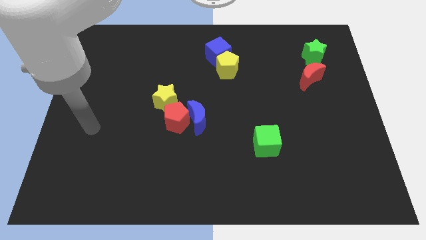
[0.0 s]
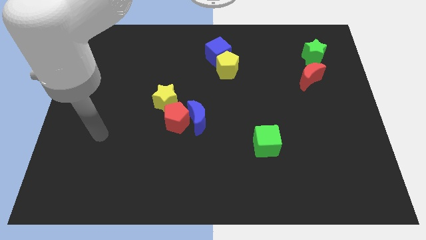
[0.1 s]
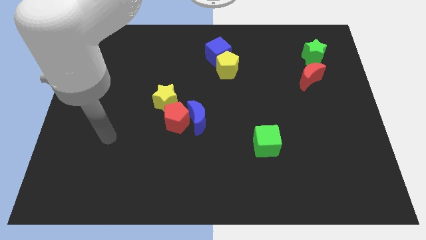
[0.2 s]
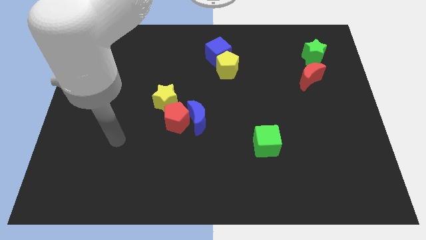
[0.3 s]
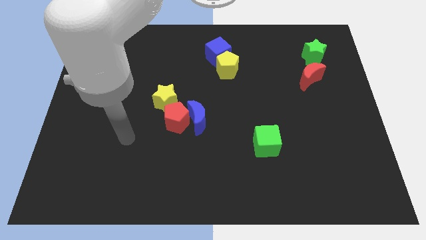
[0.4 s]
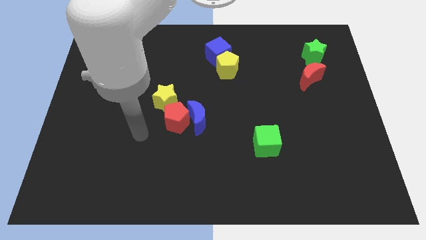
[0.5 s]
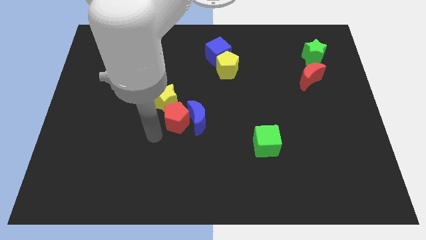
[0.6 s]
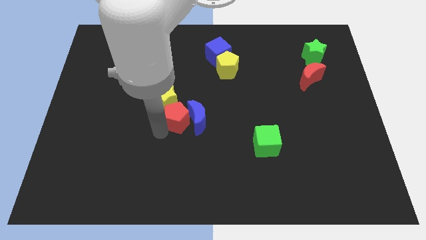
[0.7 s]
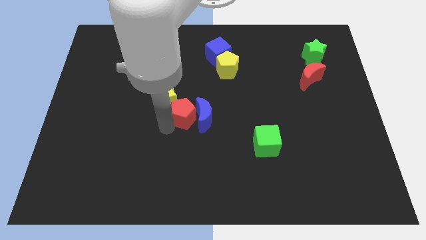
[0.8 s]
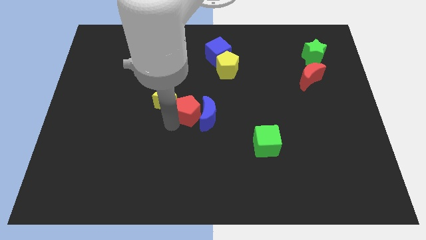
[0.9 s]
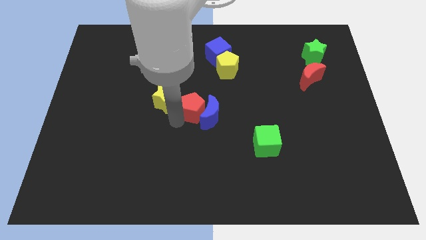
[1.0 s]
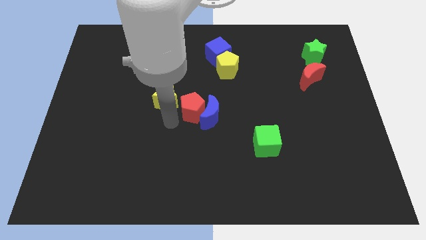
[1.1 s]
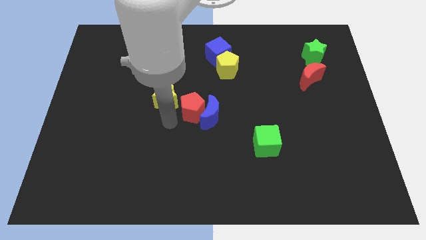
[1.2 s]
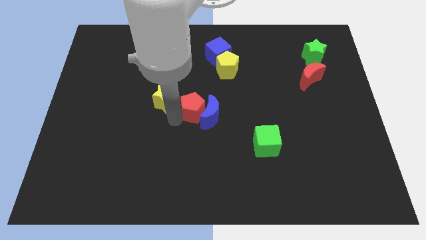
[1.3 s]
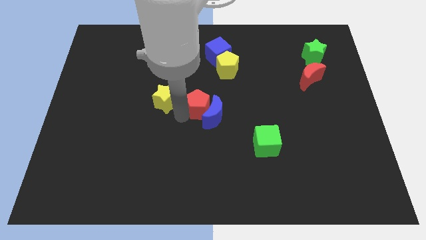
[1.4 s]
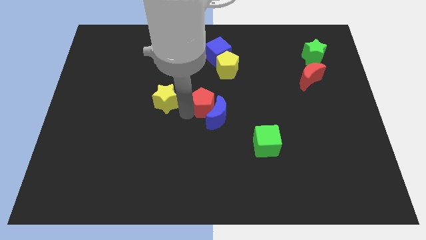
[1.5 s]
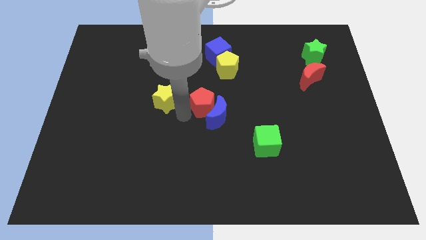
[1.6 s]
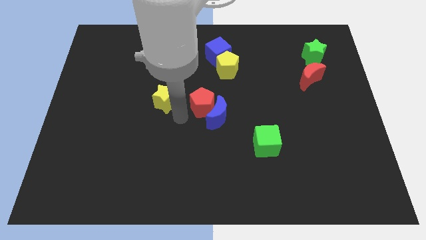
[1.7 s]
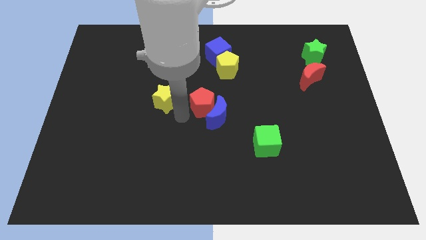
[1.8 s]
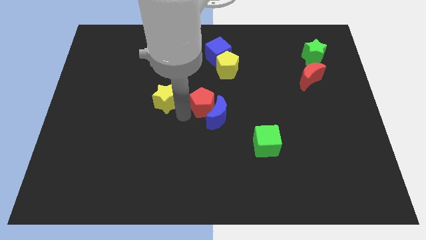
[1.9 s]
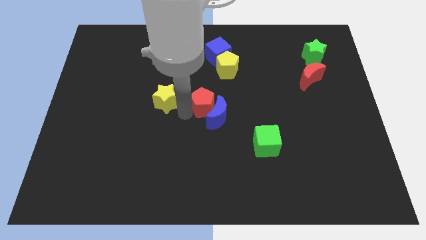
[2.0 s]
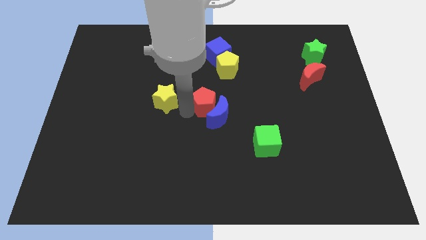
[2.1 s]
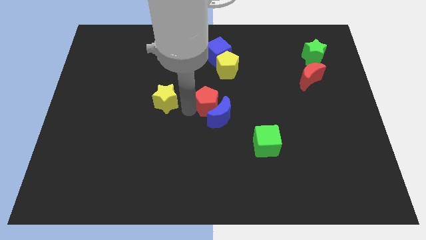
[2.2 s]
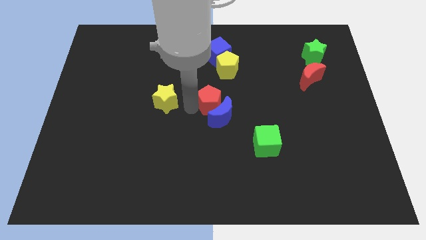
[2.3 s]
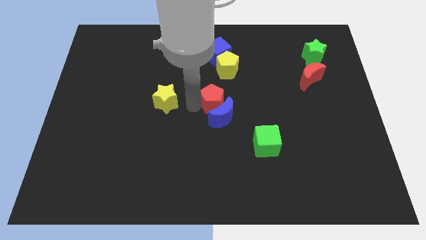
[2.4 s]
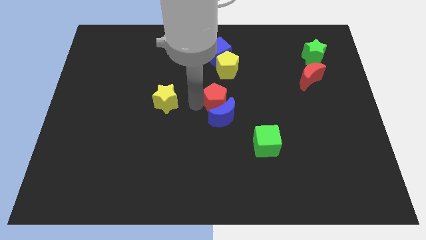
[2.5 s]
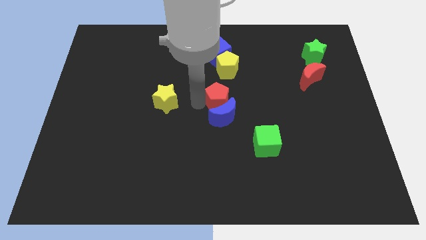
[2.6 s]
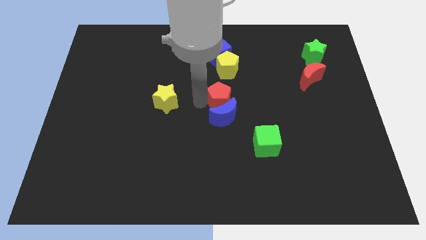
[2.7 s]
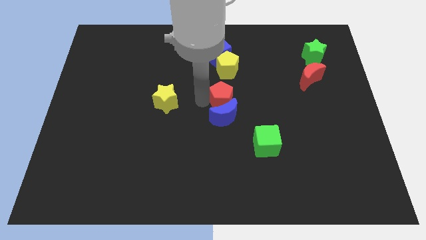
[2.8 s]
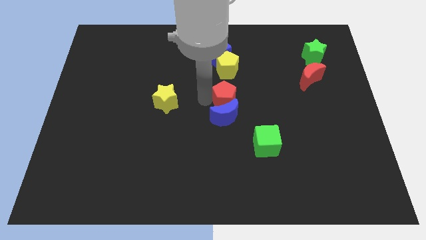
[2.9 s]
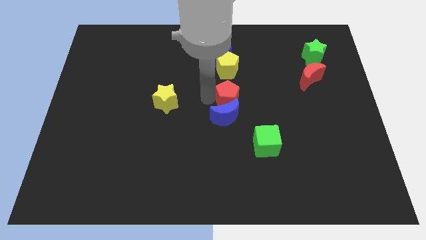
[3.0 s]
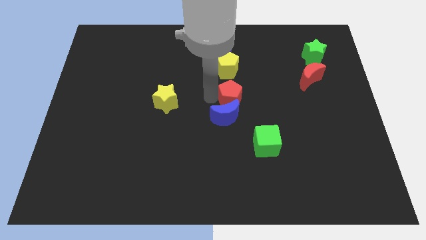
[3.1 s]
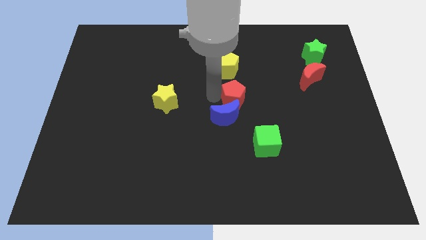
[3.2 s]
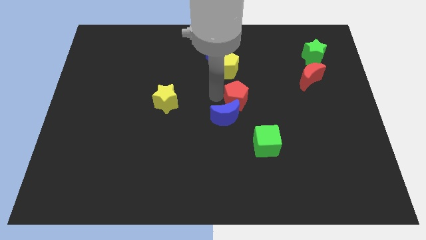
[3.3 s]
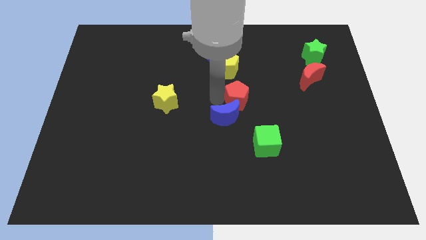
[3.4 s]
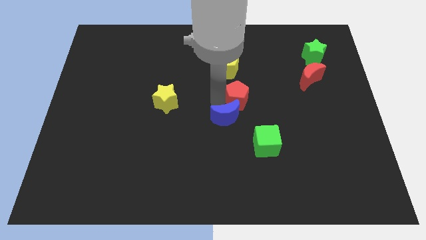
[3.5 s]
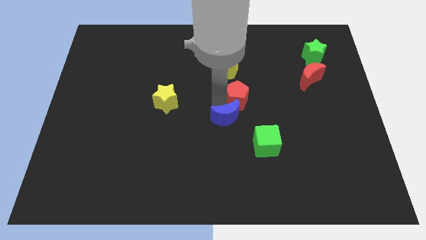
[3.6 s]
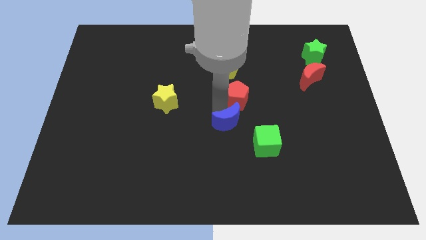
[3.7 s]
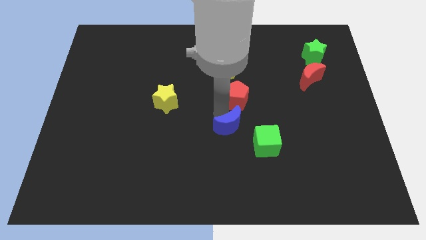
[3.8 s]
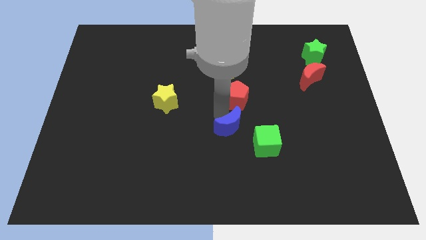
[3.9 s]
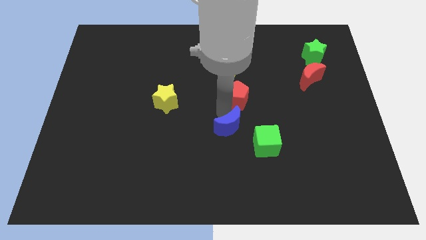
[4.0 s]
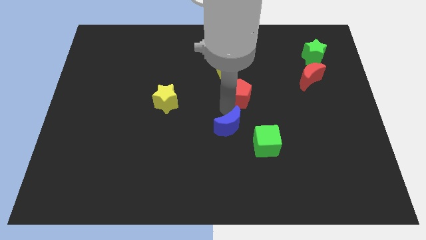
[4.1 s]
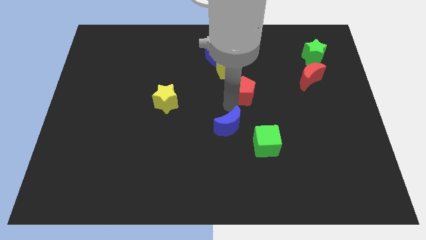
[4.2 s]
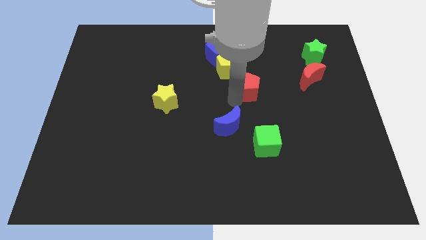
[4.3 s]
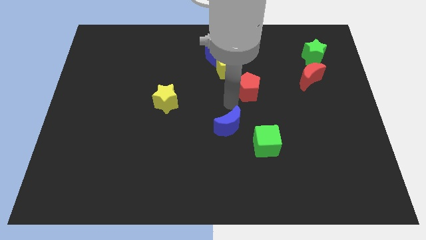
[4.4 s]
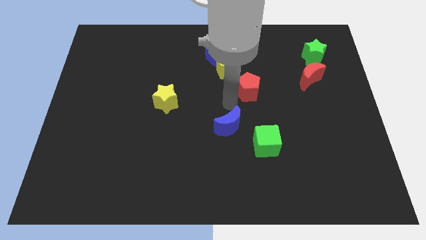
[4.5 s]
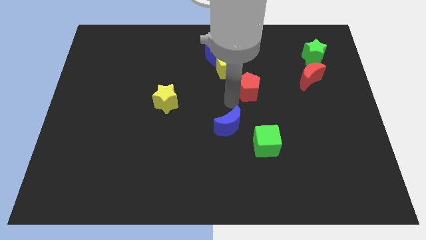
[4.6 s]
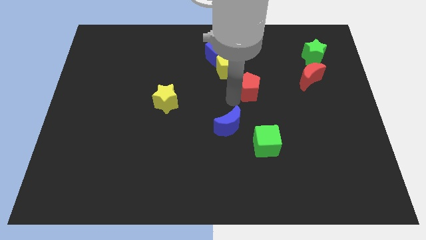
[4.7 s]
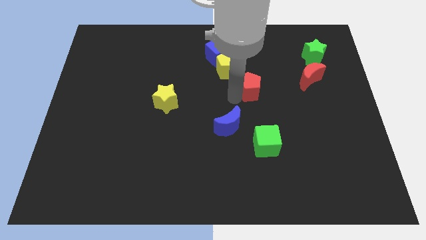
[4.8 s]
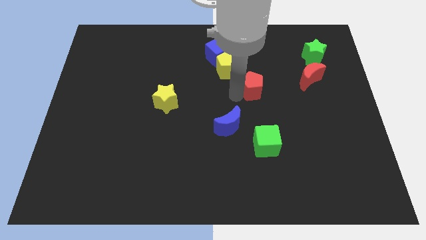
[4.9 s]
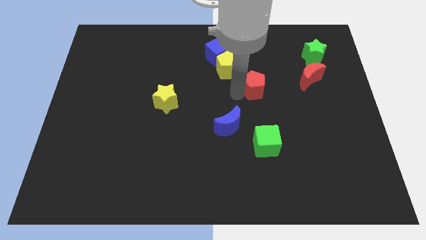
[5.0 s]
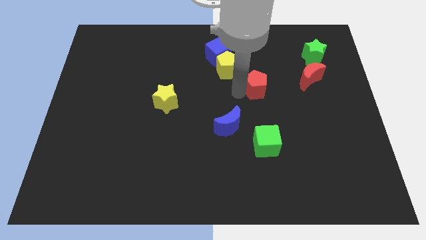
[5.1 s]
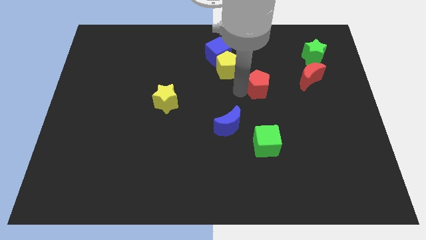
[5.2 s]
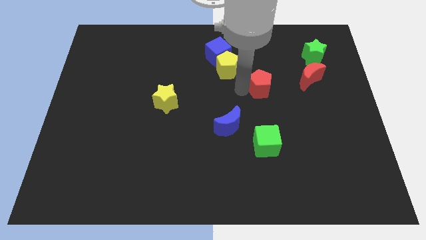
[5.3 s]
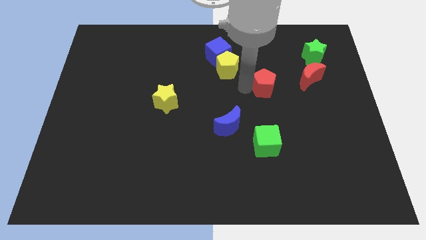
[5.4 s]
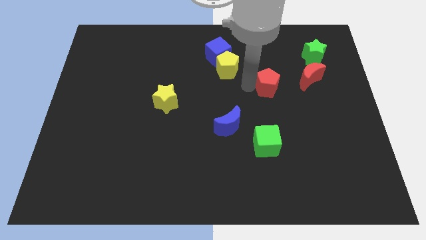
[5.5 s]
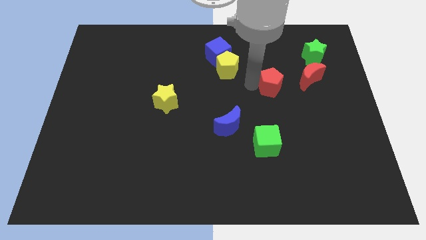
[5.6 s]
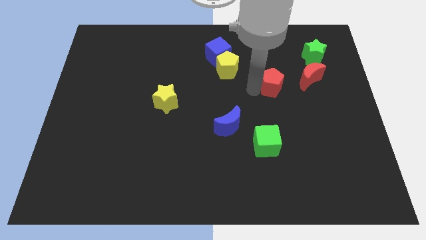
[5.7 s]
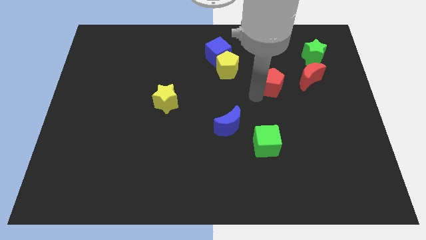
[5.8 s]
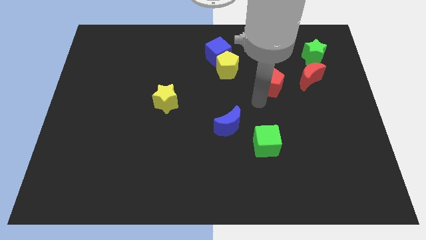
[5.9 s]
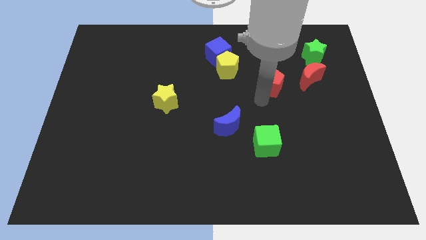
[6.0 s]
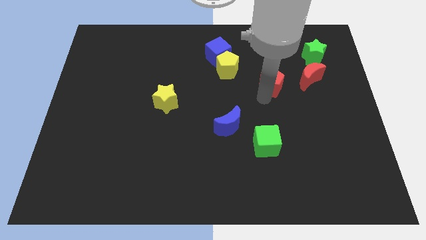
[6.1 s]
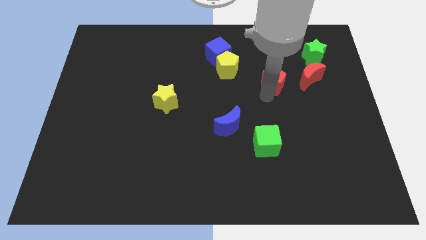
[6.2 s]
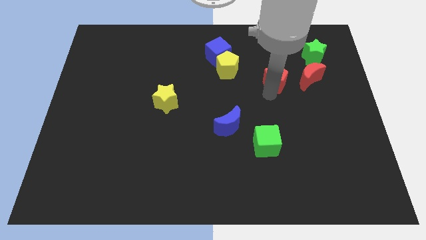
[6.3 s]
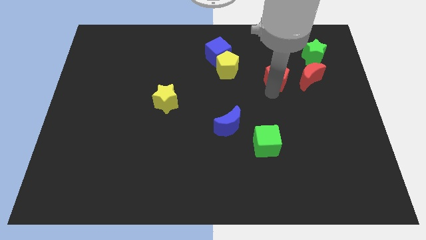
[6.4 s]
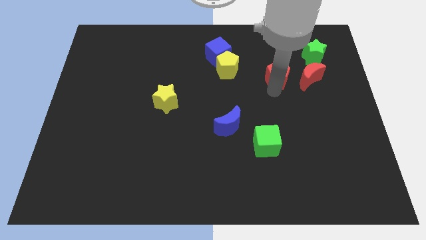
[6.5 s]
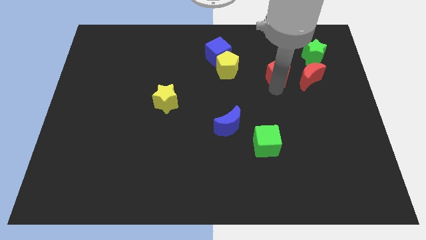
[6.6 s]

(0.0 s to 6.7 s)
slide the red pentagon diagonally up and to the left of the red moon

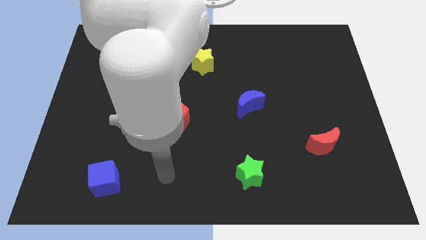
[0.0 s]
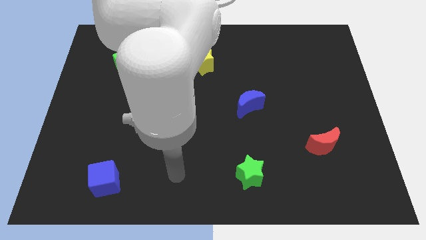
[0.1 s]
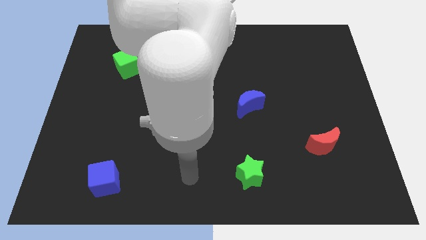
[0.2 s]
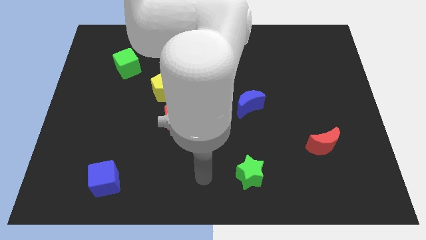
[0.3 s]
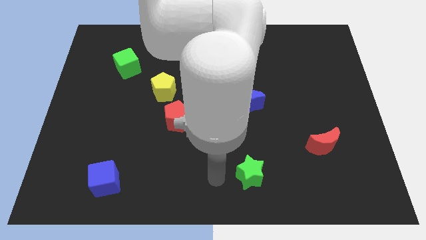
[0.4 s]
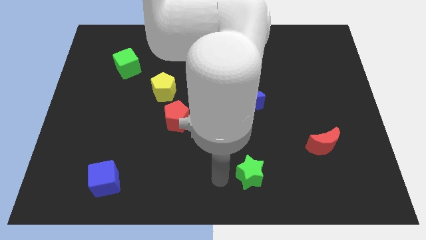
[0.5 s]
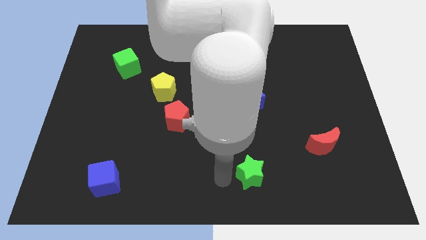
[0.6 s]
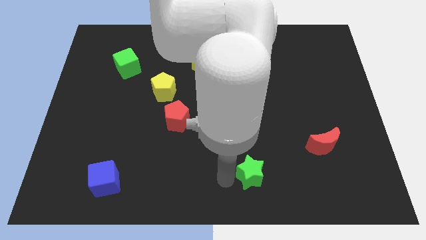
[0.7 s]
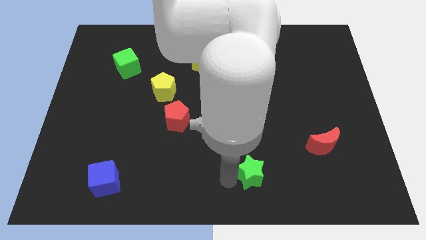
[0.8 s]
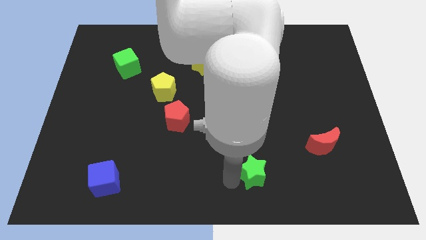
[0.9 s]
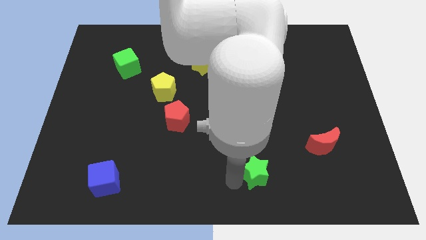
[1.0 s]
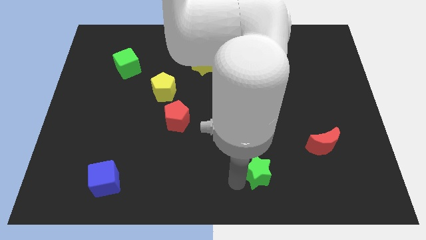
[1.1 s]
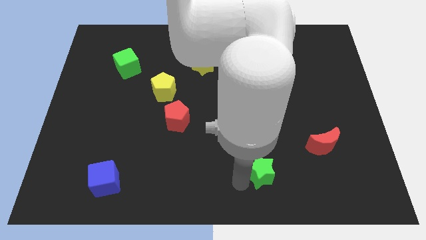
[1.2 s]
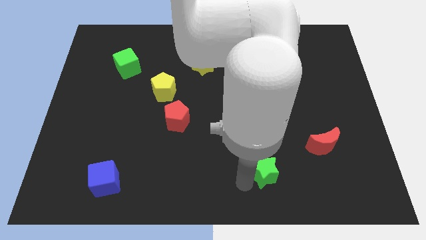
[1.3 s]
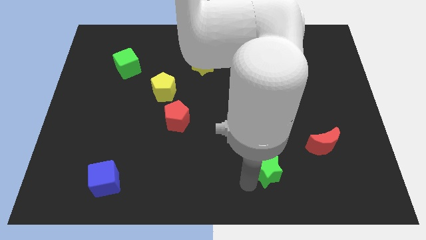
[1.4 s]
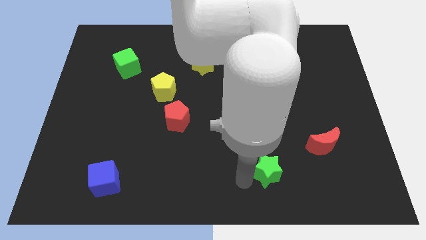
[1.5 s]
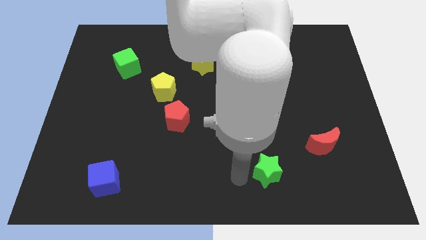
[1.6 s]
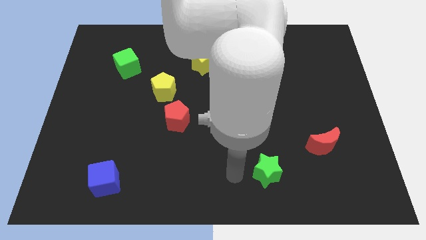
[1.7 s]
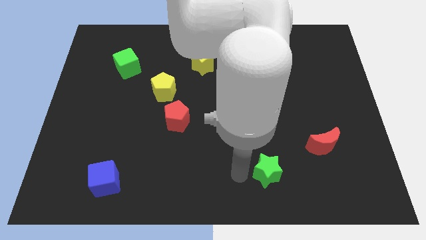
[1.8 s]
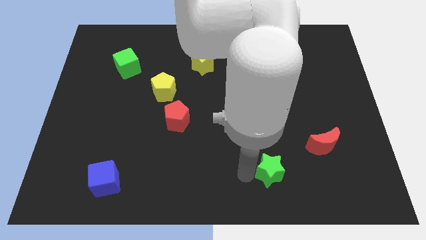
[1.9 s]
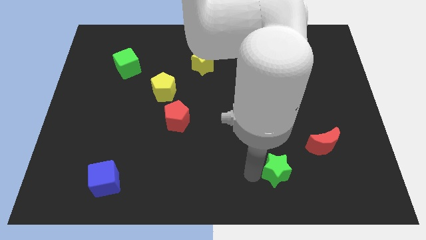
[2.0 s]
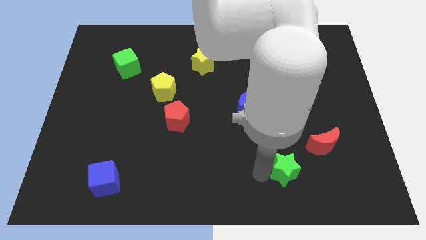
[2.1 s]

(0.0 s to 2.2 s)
put the green star diagonally down and to the left of the red moon
